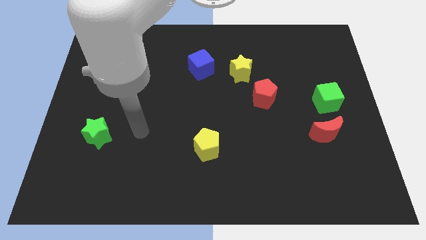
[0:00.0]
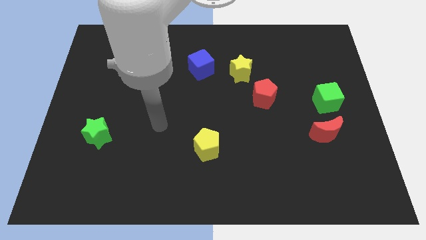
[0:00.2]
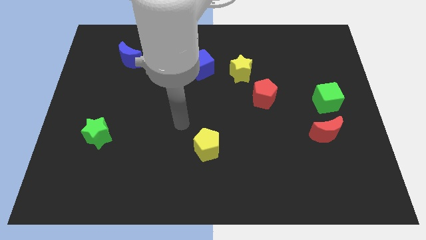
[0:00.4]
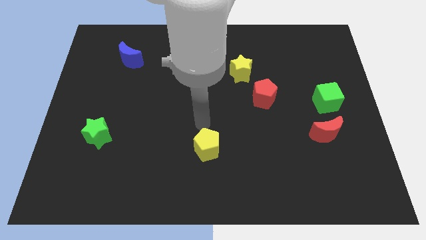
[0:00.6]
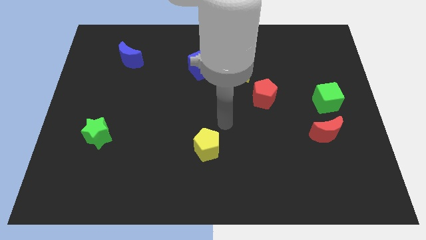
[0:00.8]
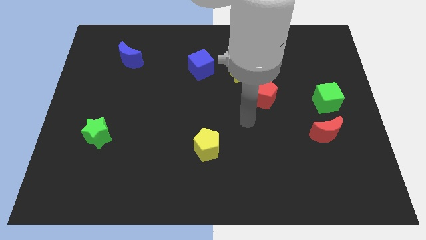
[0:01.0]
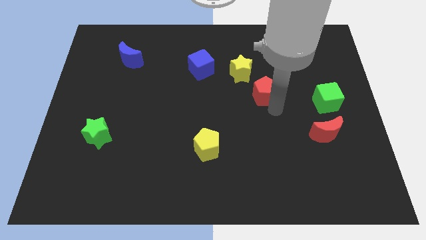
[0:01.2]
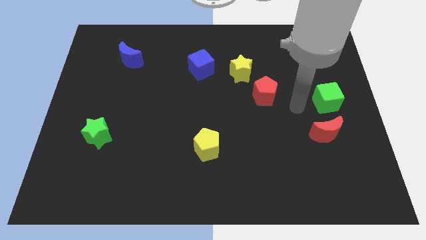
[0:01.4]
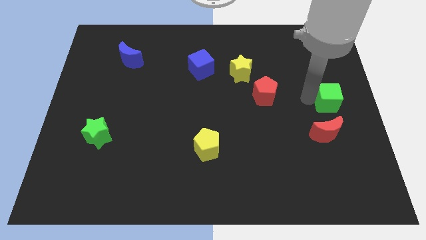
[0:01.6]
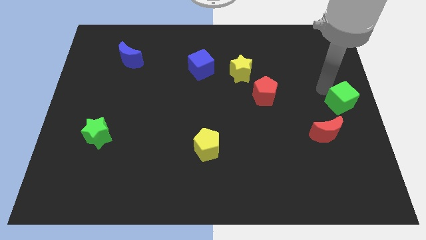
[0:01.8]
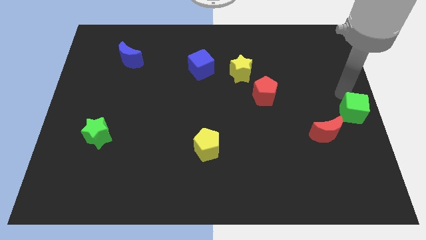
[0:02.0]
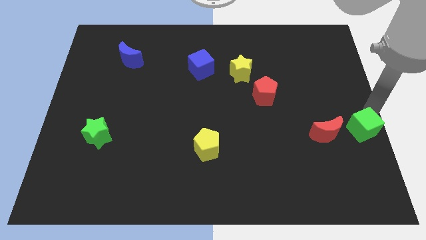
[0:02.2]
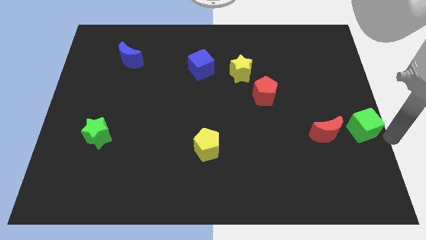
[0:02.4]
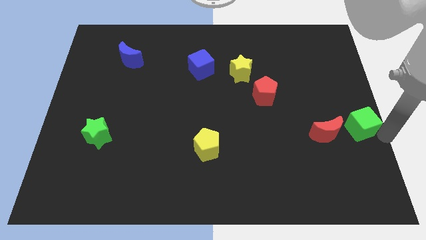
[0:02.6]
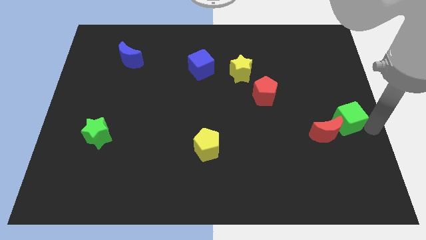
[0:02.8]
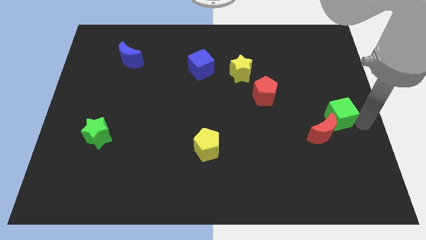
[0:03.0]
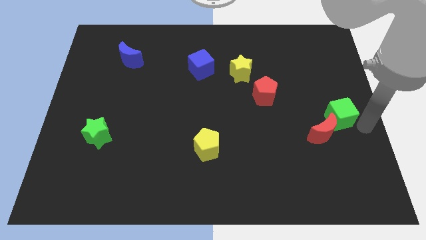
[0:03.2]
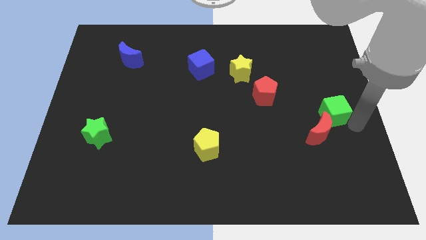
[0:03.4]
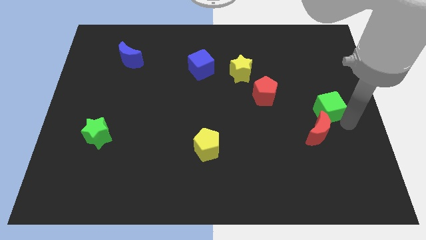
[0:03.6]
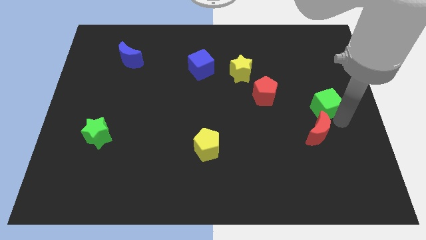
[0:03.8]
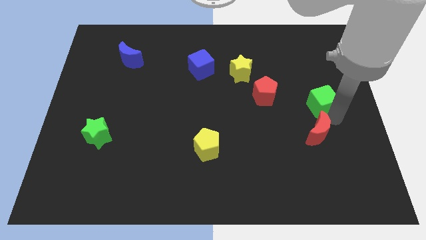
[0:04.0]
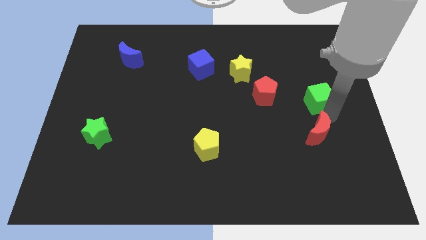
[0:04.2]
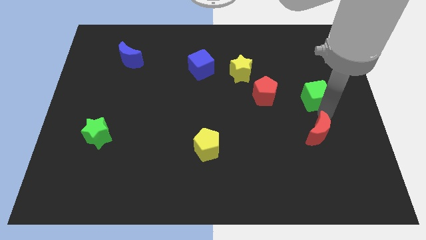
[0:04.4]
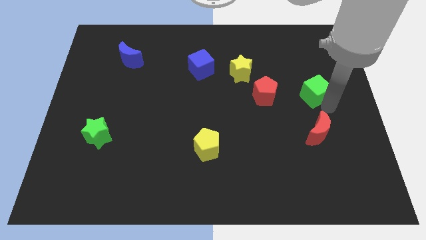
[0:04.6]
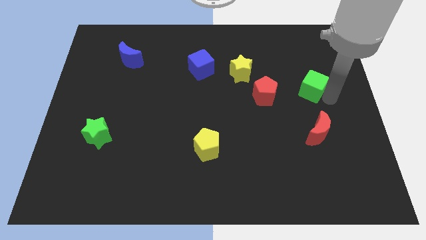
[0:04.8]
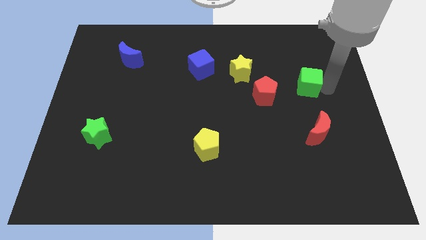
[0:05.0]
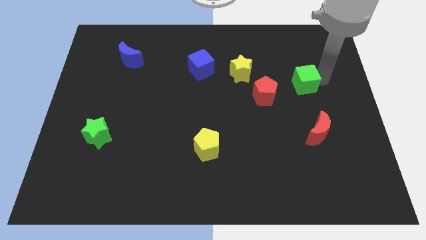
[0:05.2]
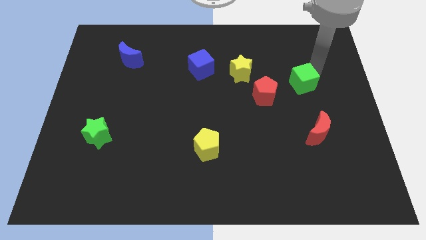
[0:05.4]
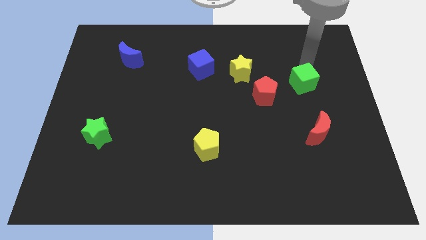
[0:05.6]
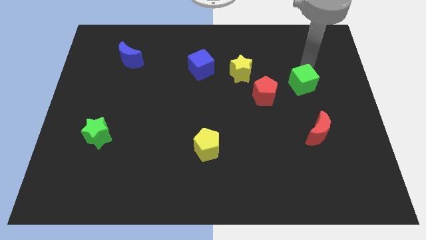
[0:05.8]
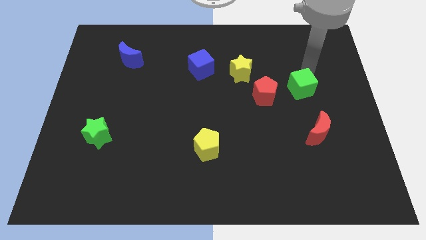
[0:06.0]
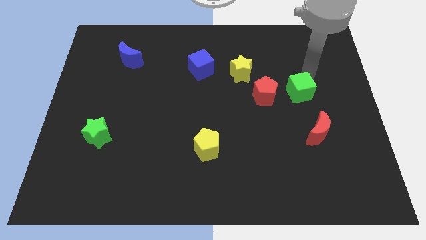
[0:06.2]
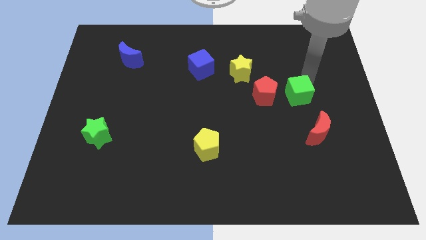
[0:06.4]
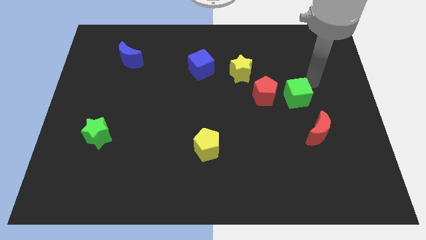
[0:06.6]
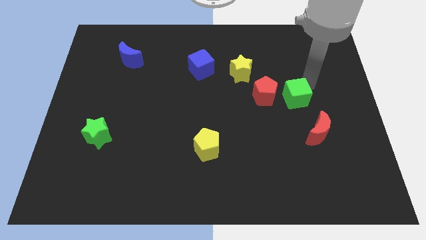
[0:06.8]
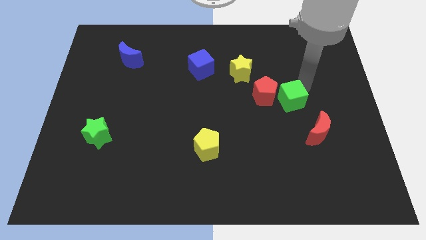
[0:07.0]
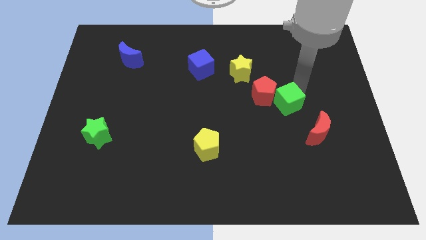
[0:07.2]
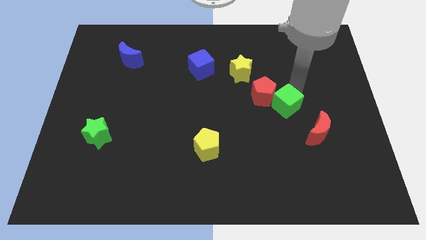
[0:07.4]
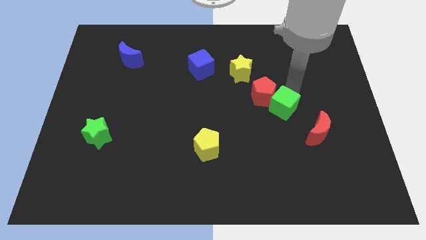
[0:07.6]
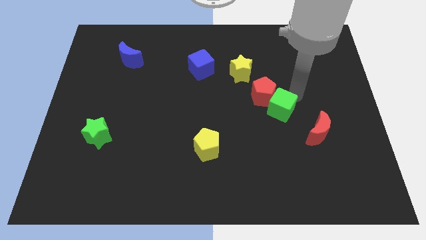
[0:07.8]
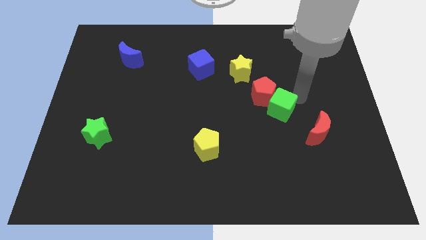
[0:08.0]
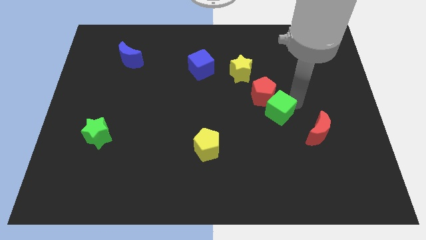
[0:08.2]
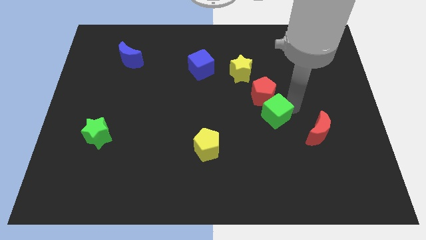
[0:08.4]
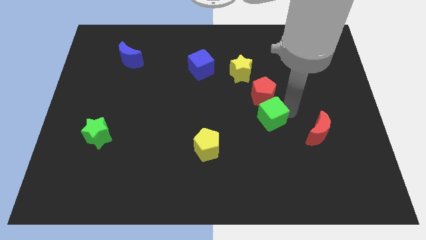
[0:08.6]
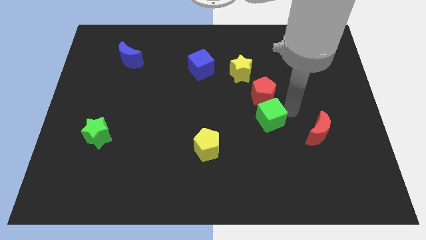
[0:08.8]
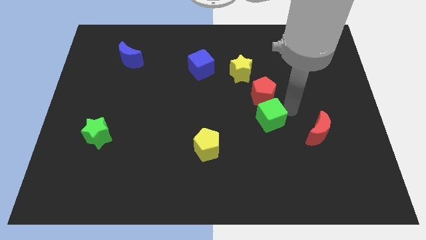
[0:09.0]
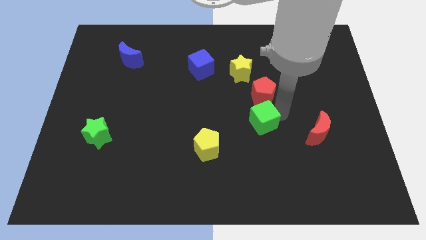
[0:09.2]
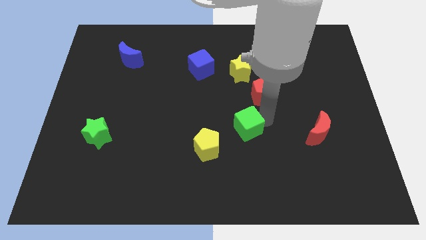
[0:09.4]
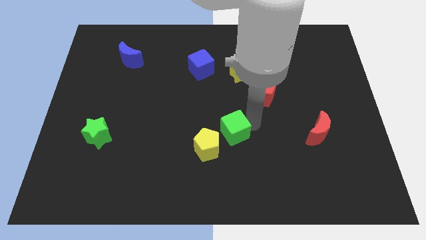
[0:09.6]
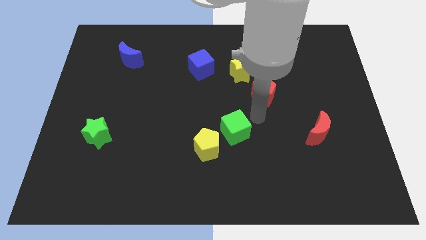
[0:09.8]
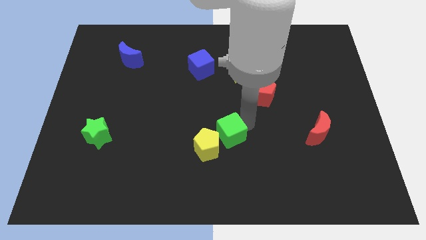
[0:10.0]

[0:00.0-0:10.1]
slide the green cube towards the yellow pentagon

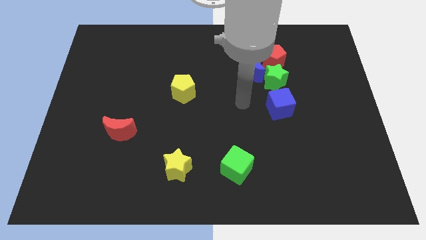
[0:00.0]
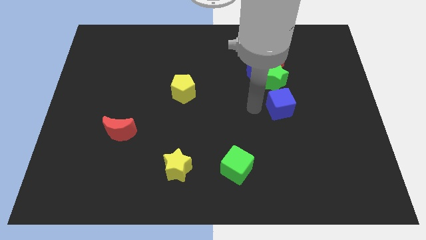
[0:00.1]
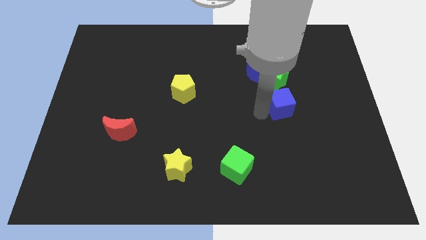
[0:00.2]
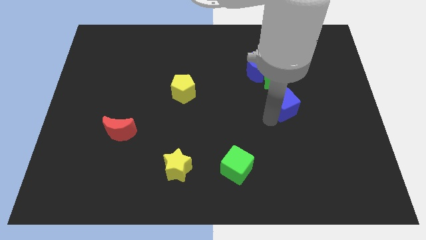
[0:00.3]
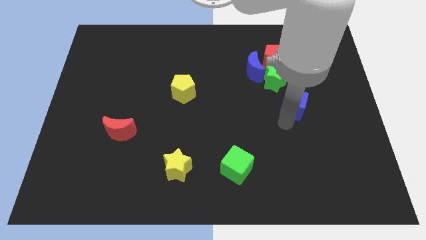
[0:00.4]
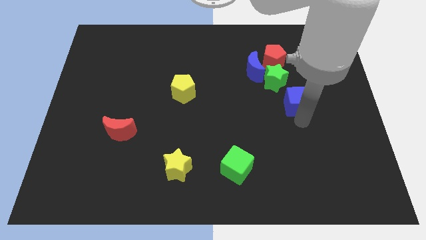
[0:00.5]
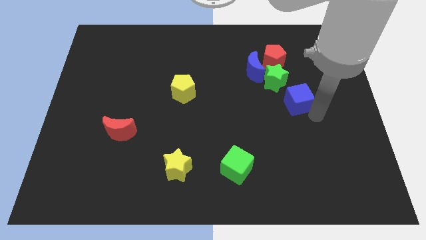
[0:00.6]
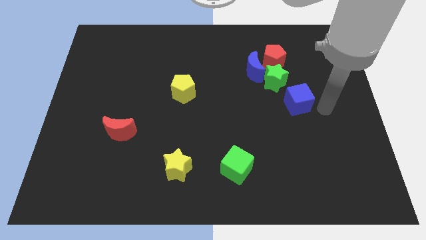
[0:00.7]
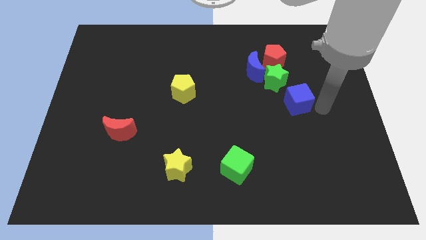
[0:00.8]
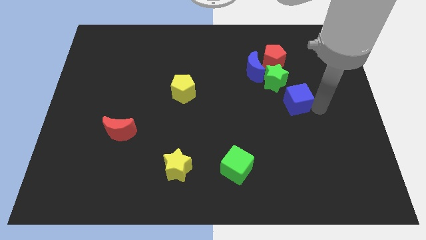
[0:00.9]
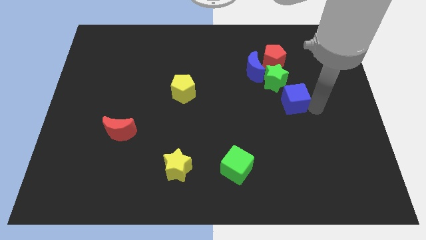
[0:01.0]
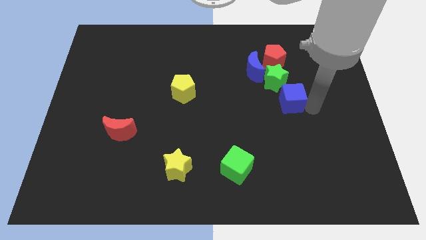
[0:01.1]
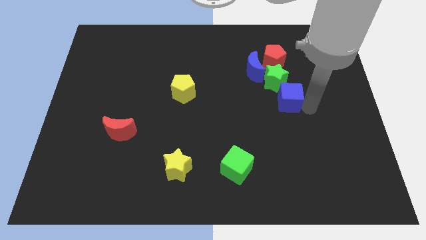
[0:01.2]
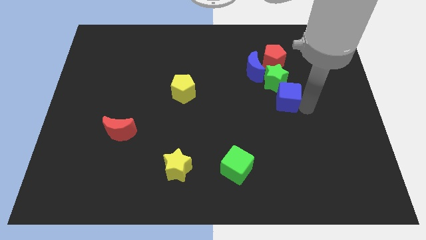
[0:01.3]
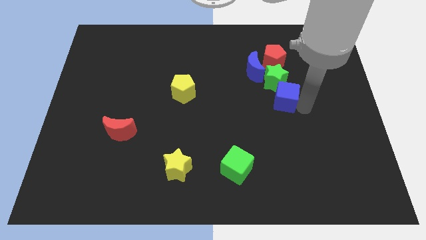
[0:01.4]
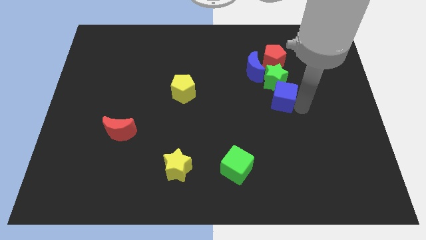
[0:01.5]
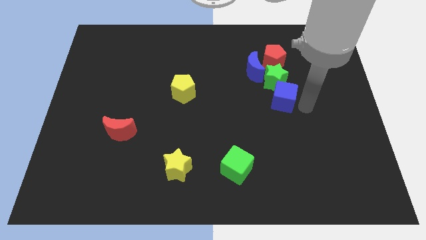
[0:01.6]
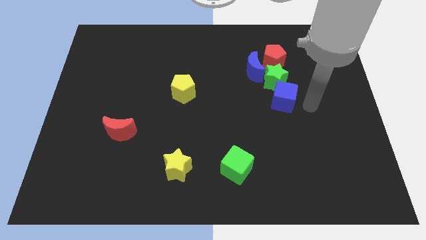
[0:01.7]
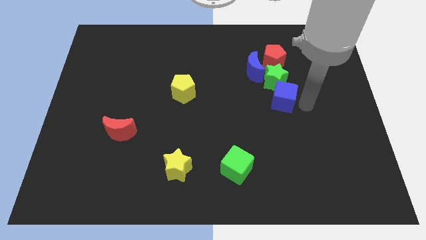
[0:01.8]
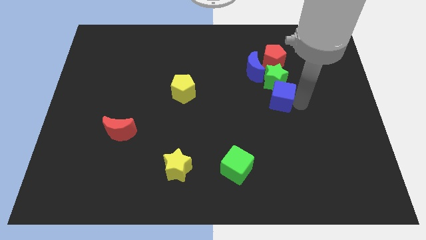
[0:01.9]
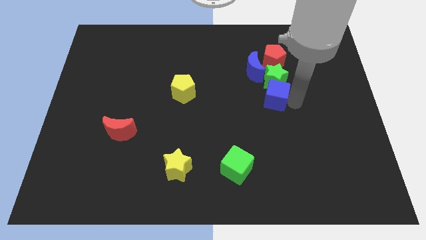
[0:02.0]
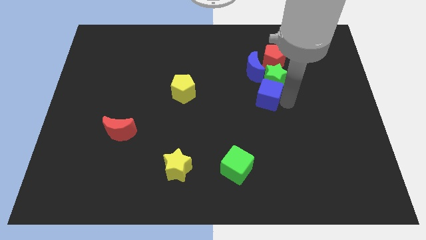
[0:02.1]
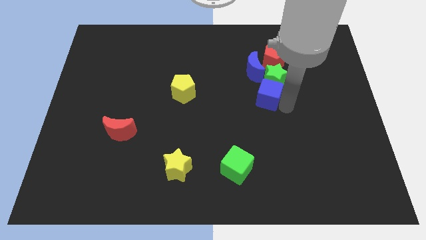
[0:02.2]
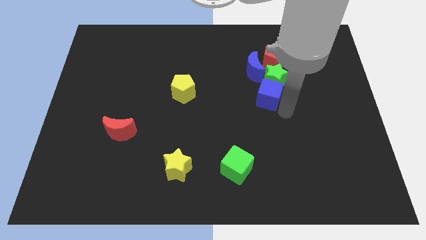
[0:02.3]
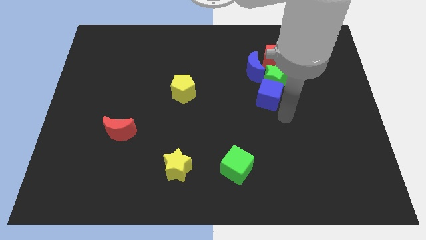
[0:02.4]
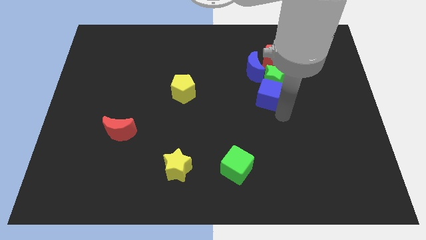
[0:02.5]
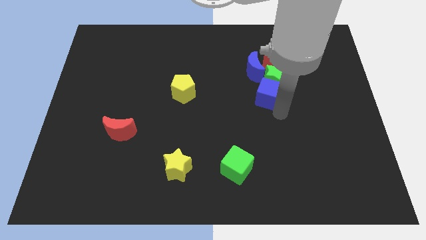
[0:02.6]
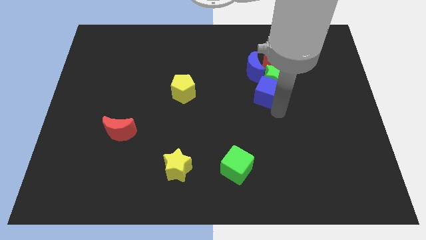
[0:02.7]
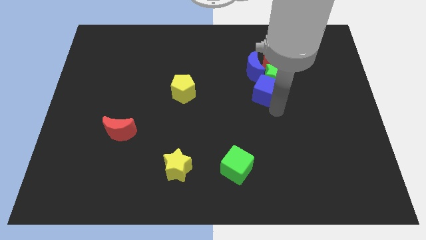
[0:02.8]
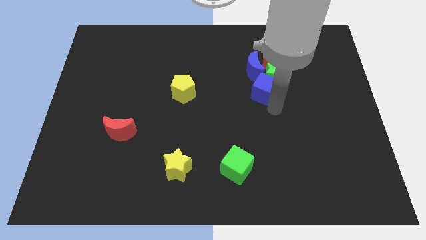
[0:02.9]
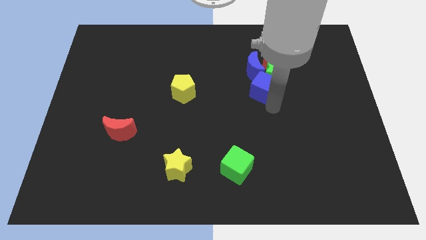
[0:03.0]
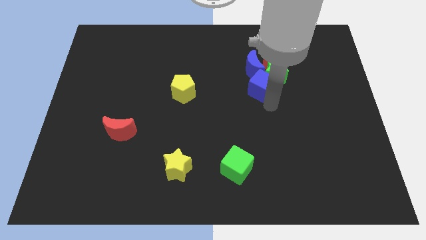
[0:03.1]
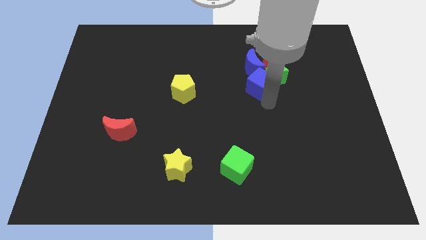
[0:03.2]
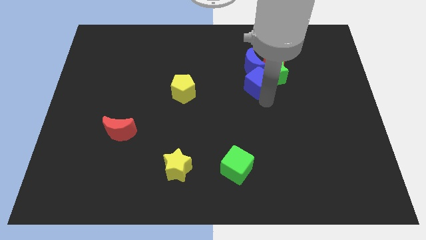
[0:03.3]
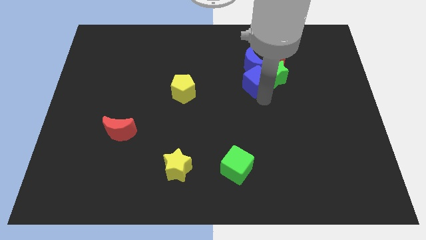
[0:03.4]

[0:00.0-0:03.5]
slide the blue cube close to the blue moon
